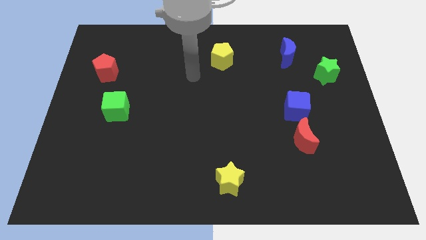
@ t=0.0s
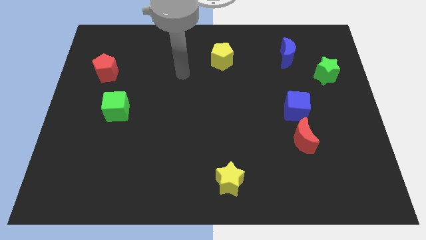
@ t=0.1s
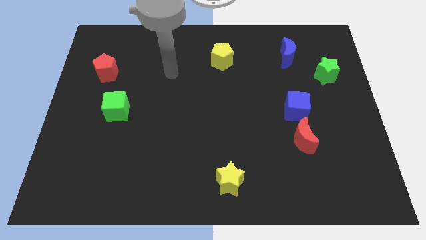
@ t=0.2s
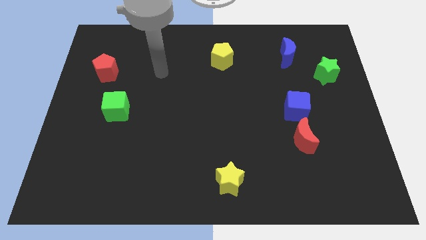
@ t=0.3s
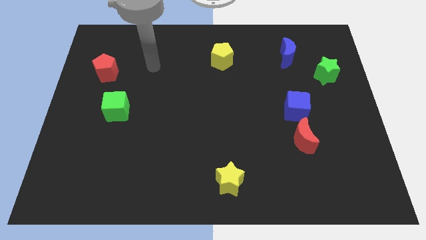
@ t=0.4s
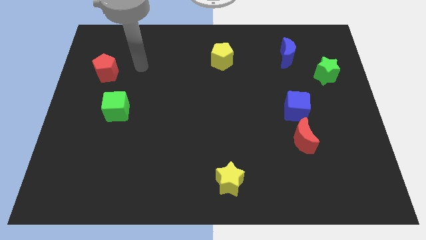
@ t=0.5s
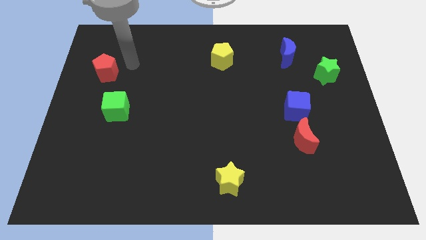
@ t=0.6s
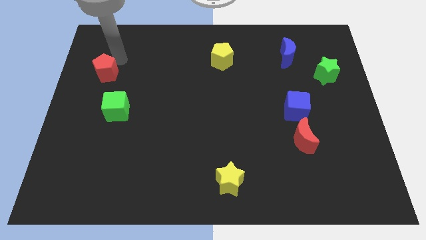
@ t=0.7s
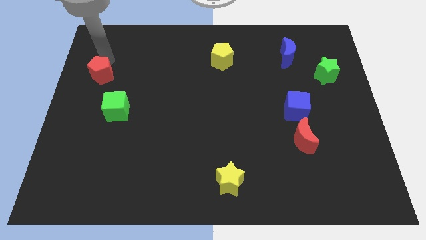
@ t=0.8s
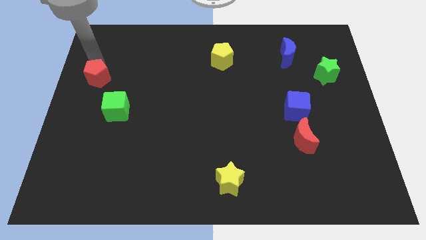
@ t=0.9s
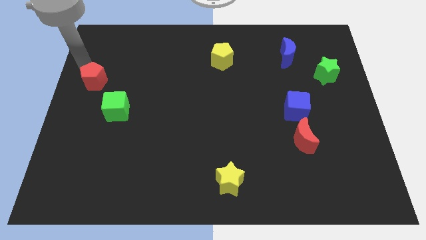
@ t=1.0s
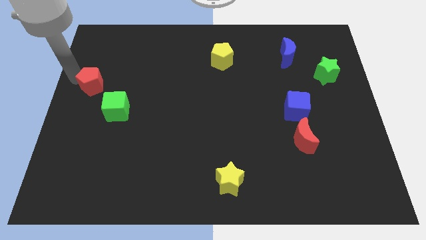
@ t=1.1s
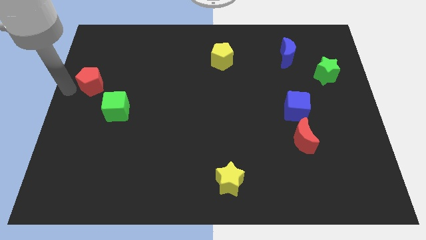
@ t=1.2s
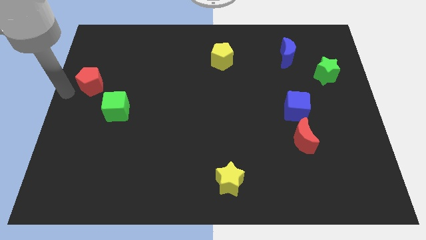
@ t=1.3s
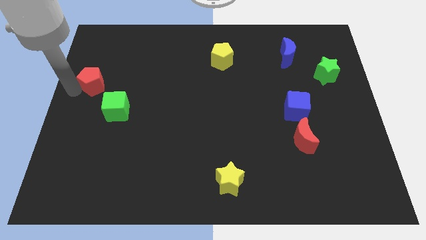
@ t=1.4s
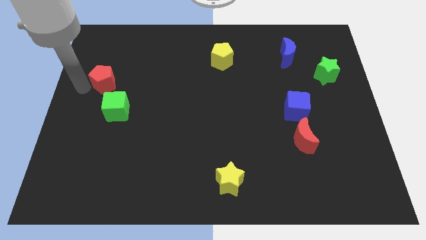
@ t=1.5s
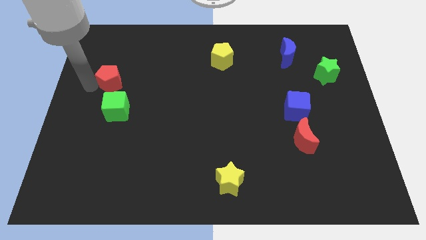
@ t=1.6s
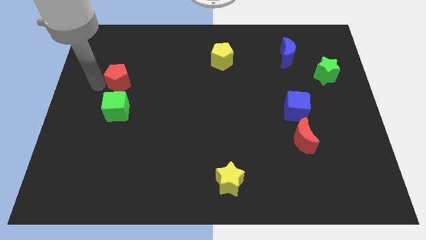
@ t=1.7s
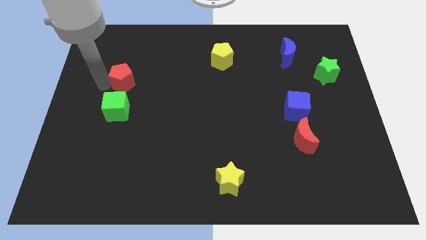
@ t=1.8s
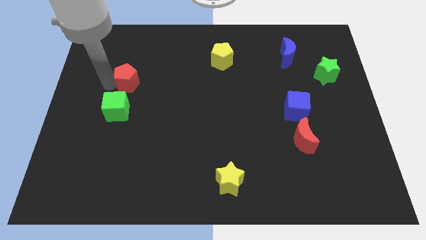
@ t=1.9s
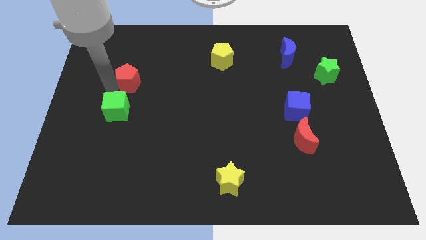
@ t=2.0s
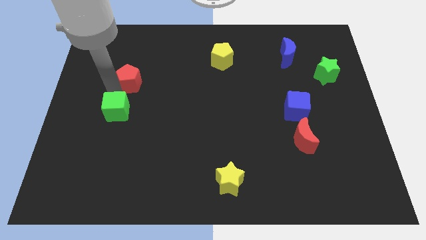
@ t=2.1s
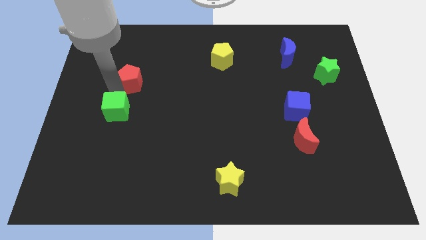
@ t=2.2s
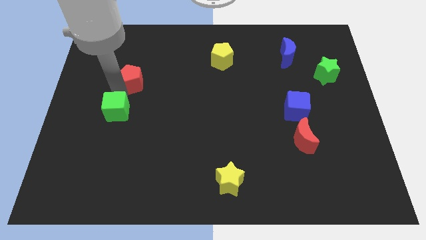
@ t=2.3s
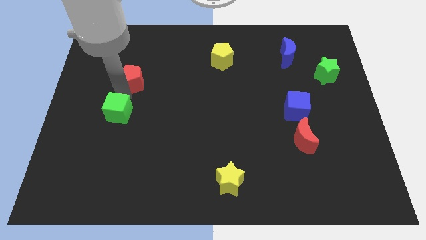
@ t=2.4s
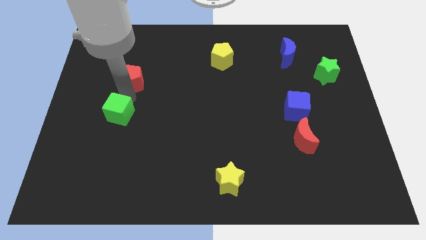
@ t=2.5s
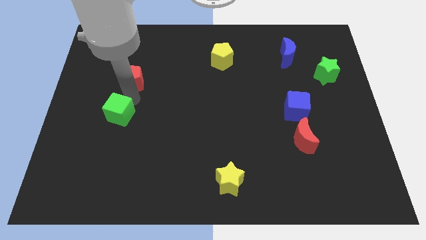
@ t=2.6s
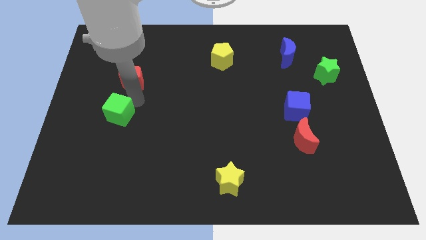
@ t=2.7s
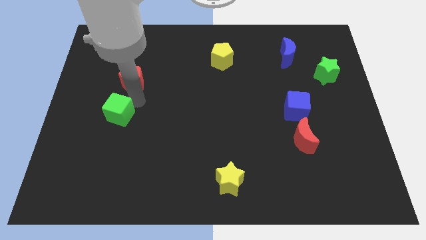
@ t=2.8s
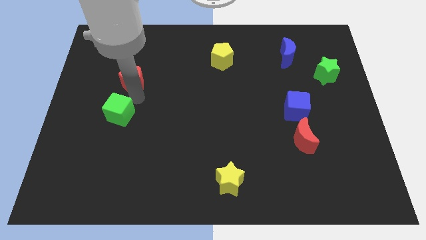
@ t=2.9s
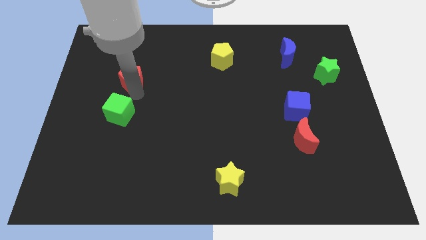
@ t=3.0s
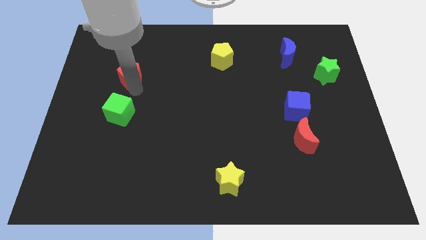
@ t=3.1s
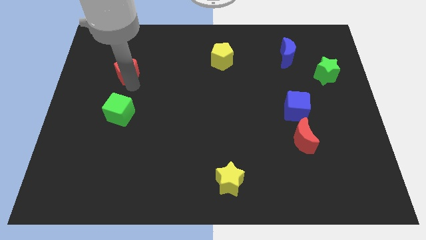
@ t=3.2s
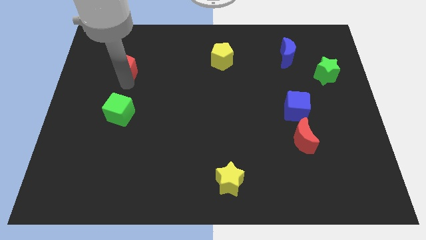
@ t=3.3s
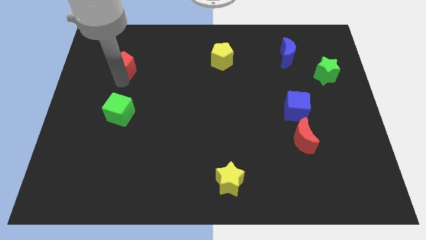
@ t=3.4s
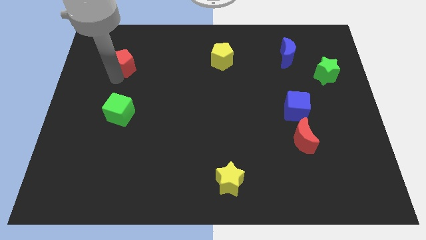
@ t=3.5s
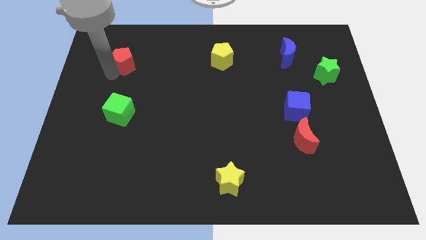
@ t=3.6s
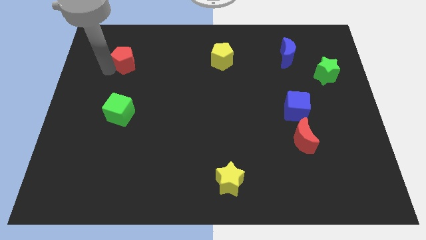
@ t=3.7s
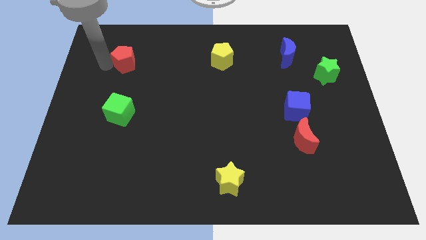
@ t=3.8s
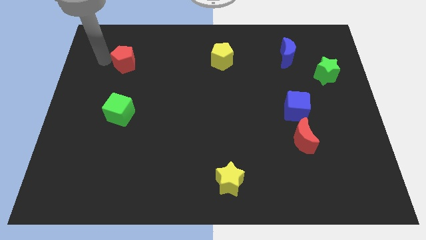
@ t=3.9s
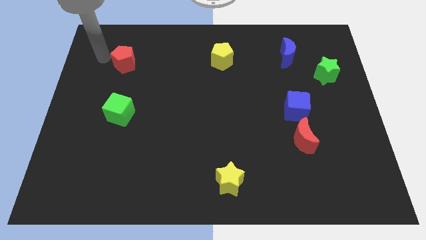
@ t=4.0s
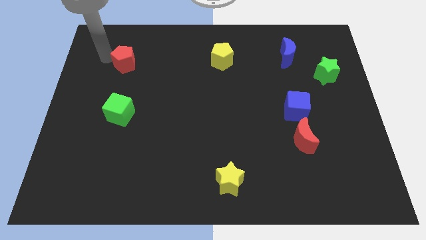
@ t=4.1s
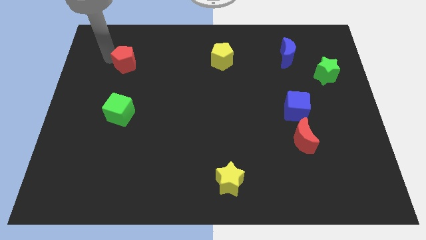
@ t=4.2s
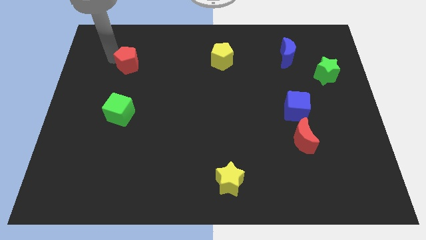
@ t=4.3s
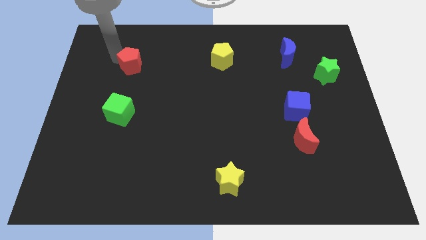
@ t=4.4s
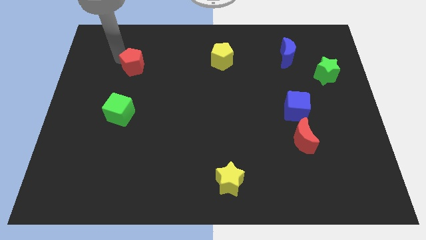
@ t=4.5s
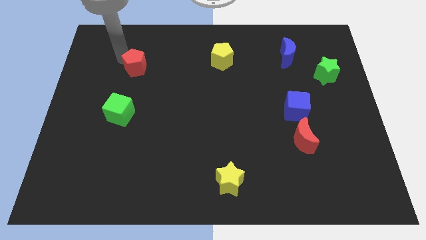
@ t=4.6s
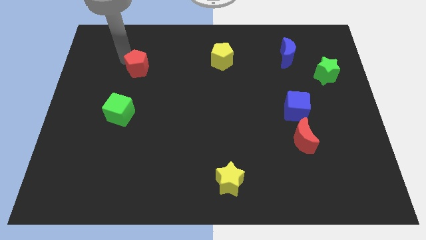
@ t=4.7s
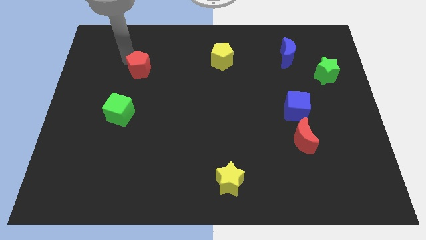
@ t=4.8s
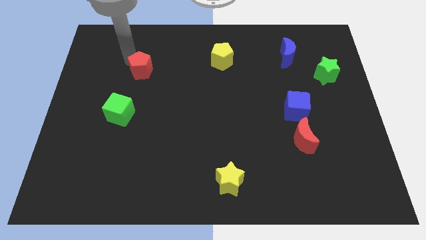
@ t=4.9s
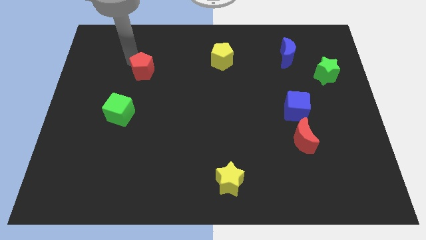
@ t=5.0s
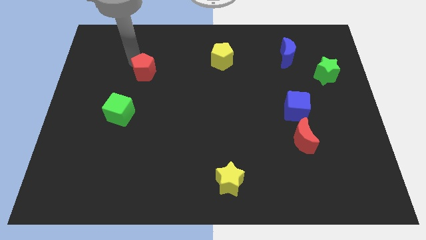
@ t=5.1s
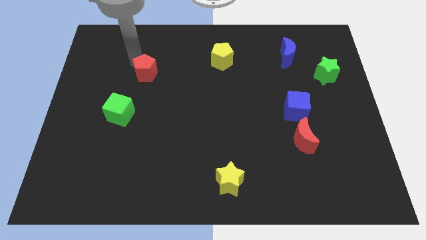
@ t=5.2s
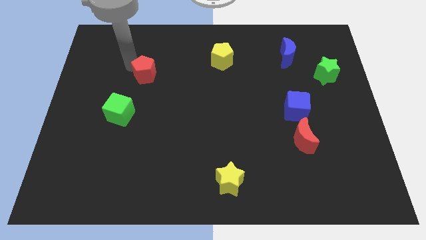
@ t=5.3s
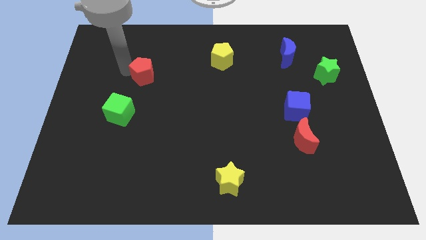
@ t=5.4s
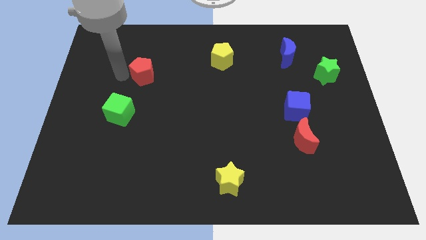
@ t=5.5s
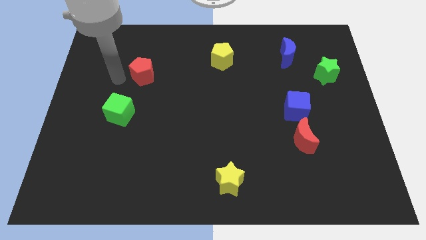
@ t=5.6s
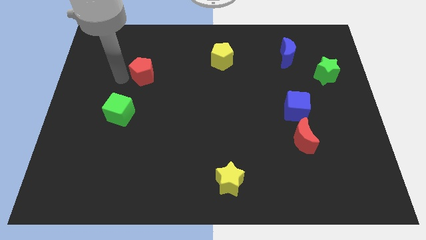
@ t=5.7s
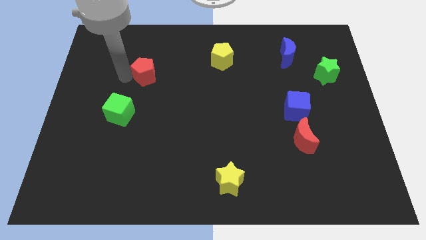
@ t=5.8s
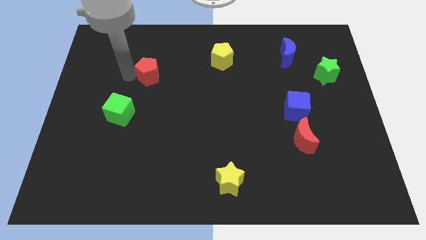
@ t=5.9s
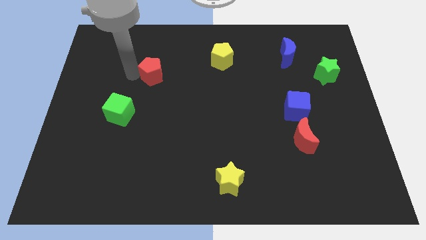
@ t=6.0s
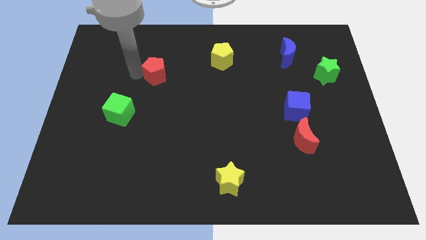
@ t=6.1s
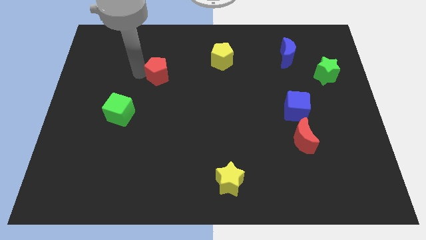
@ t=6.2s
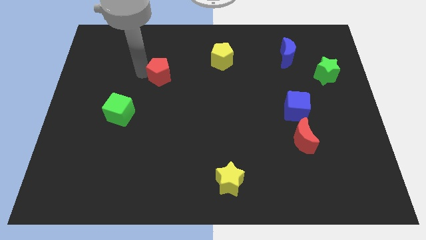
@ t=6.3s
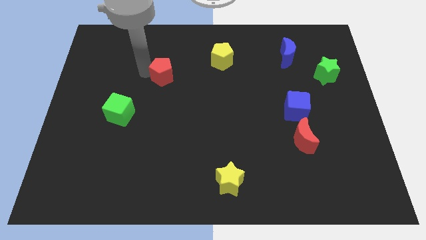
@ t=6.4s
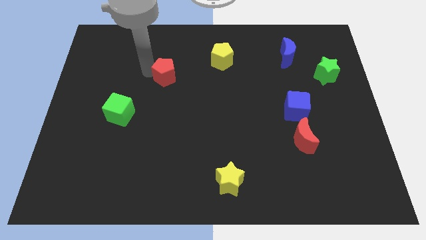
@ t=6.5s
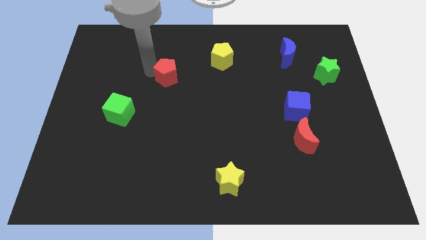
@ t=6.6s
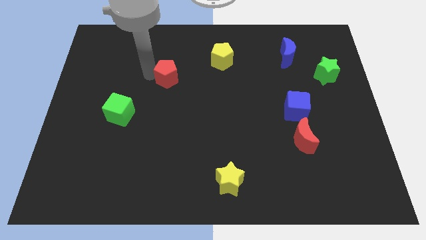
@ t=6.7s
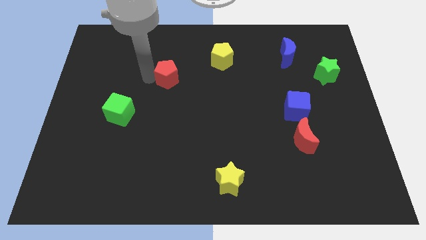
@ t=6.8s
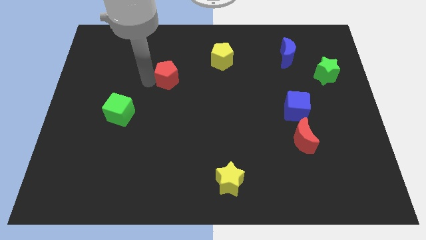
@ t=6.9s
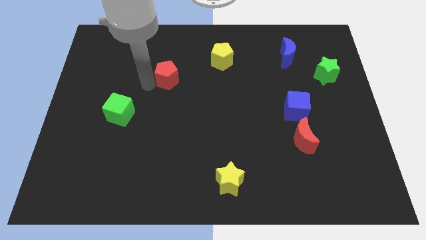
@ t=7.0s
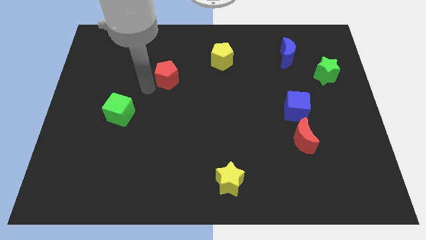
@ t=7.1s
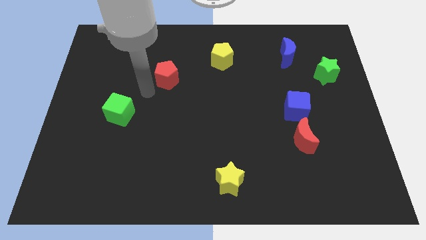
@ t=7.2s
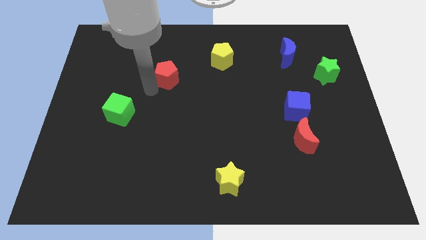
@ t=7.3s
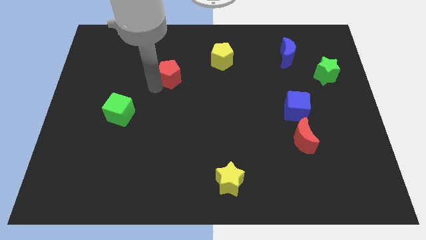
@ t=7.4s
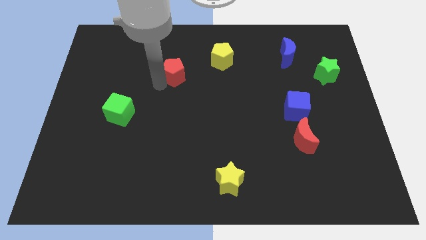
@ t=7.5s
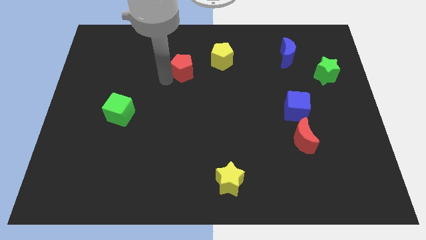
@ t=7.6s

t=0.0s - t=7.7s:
slide the red pentagon to the right

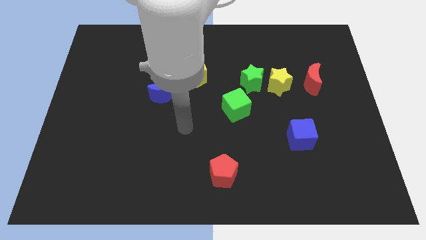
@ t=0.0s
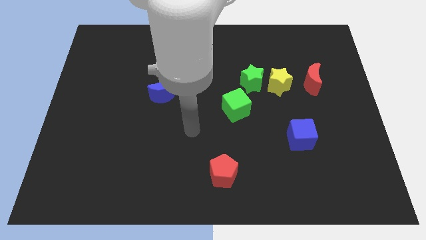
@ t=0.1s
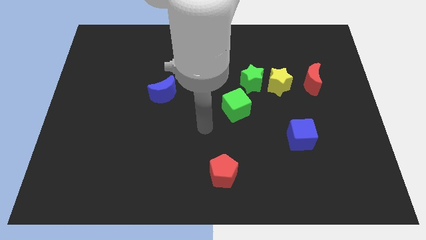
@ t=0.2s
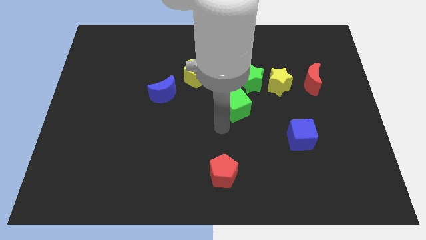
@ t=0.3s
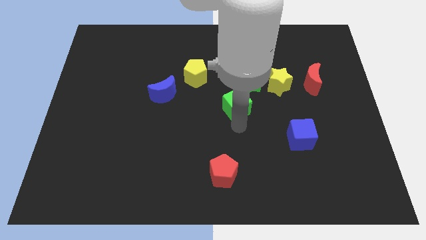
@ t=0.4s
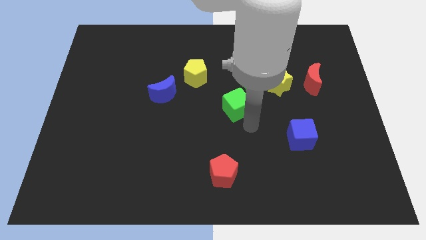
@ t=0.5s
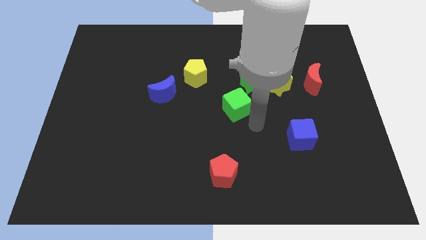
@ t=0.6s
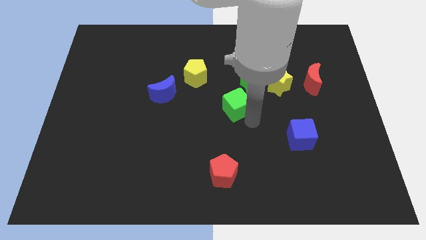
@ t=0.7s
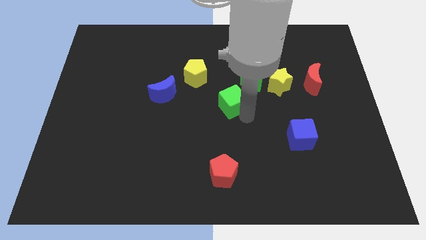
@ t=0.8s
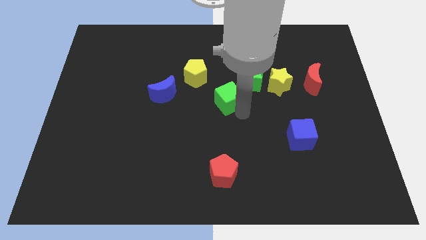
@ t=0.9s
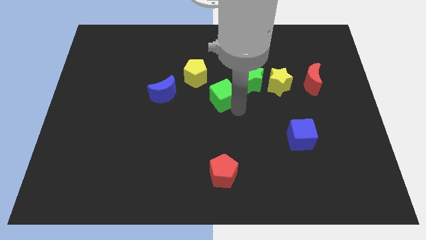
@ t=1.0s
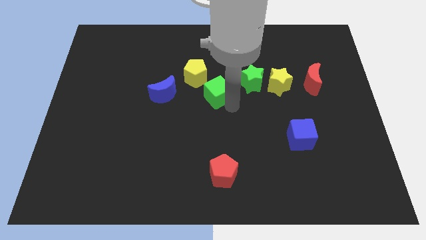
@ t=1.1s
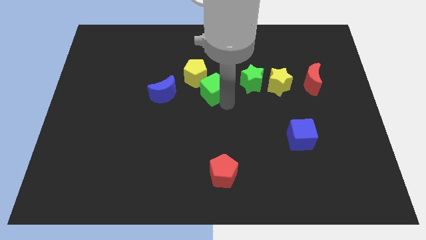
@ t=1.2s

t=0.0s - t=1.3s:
push the green cube a bit upwards and left diagonally
